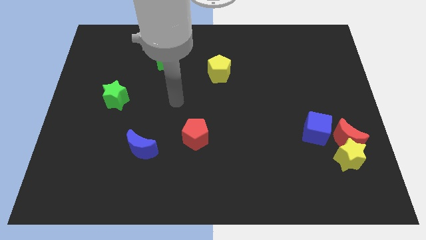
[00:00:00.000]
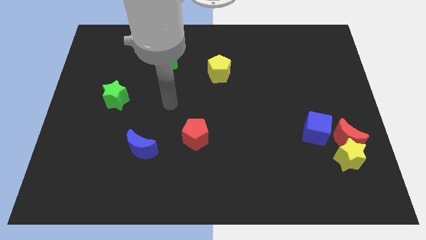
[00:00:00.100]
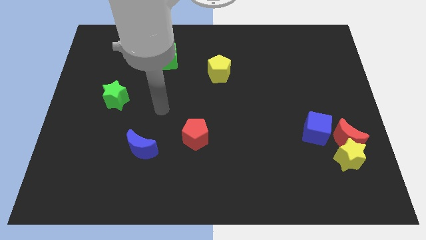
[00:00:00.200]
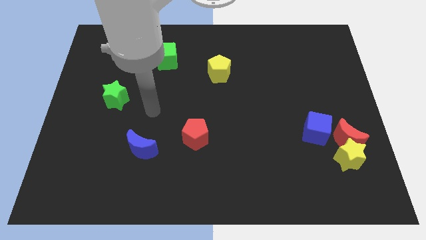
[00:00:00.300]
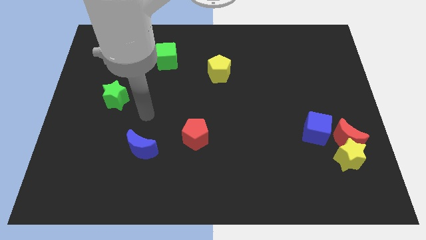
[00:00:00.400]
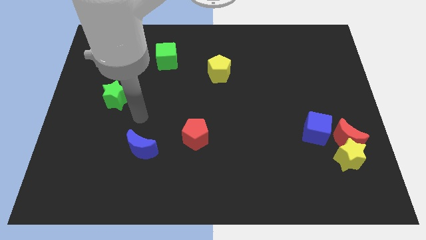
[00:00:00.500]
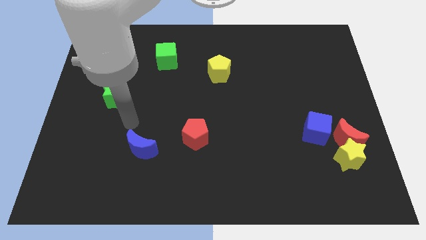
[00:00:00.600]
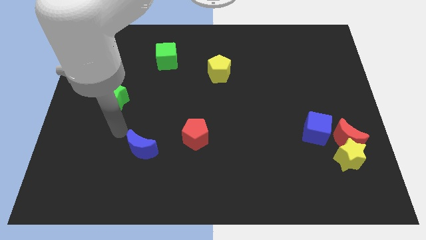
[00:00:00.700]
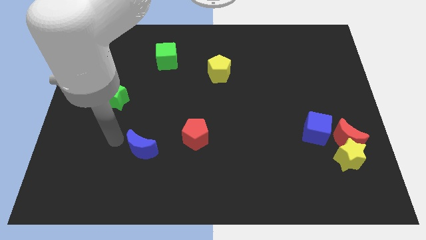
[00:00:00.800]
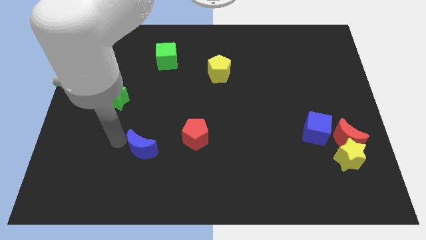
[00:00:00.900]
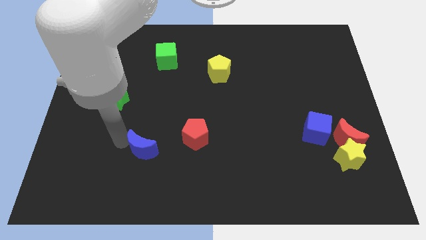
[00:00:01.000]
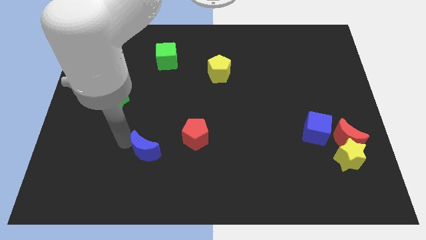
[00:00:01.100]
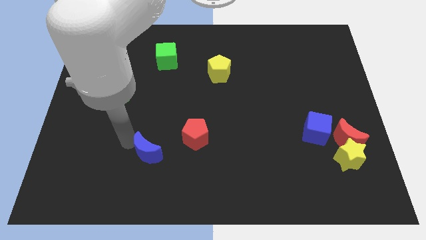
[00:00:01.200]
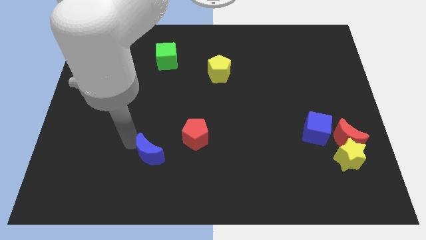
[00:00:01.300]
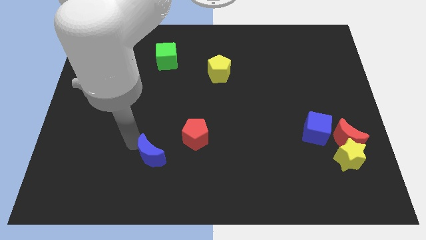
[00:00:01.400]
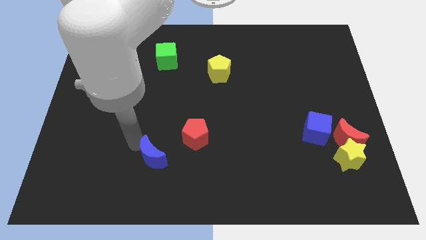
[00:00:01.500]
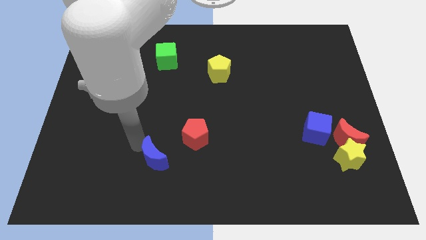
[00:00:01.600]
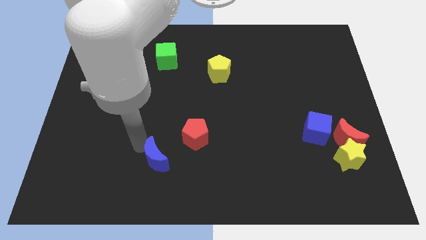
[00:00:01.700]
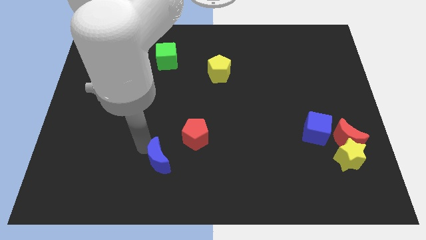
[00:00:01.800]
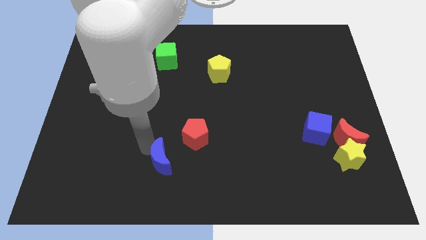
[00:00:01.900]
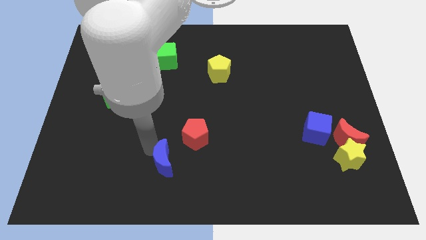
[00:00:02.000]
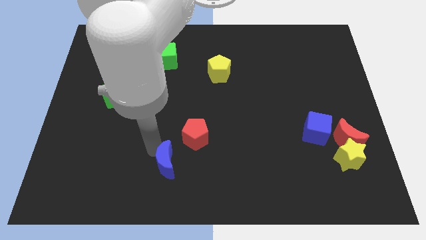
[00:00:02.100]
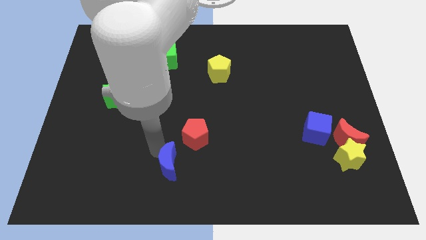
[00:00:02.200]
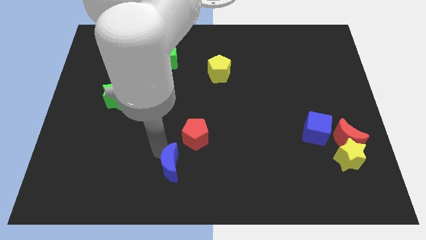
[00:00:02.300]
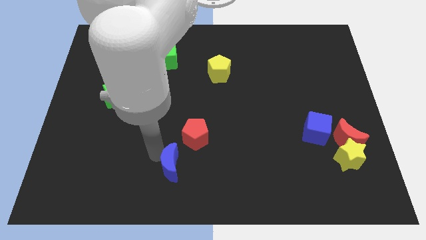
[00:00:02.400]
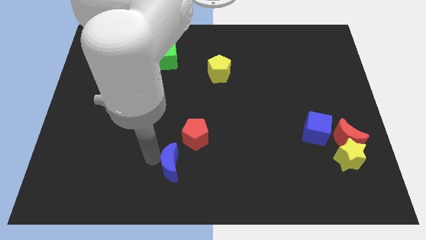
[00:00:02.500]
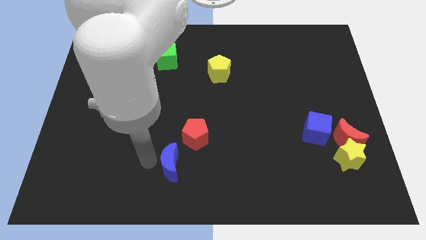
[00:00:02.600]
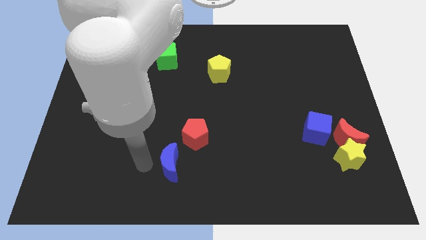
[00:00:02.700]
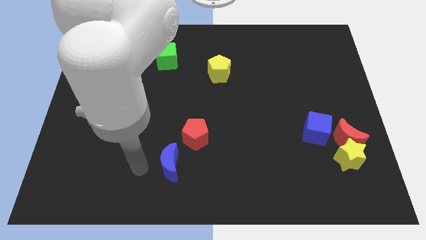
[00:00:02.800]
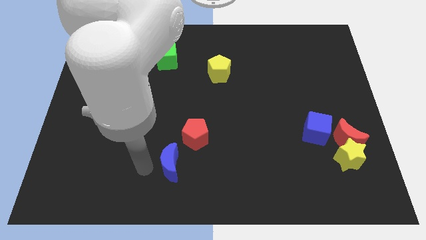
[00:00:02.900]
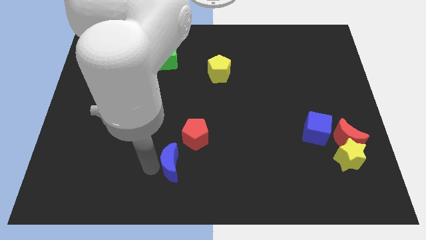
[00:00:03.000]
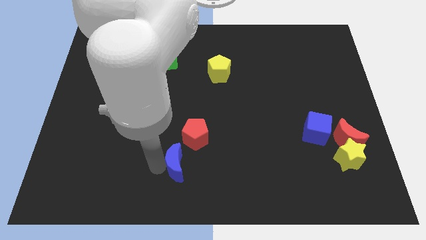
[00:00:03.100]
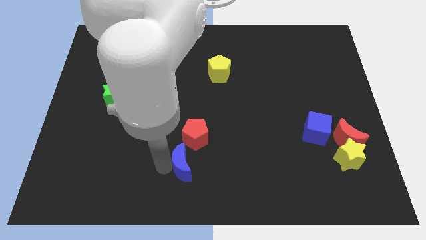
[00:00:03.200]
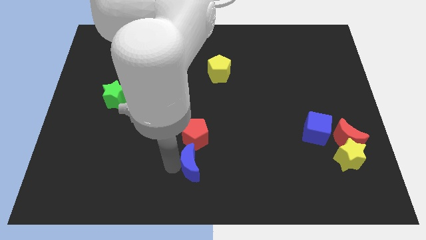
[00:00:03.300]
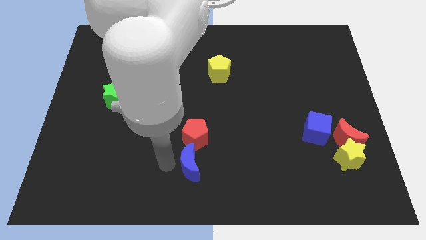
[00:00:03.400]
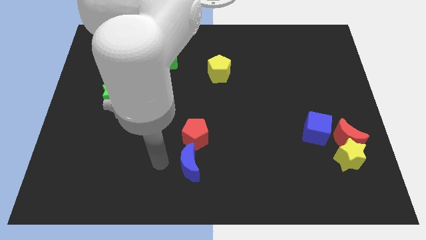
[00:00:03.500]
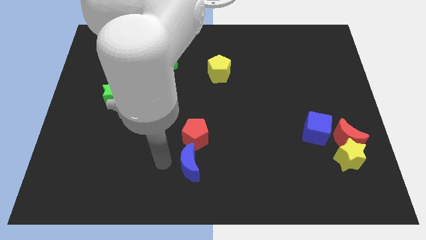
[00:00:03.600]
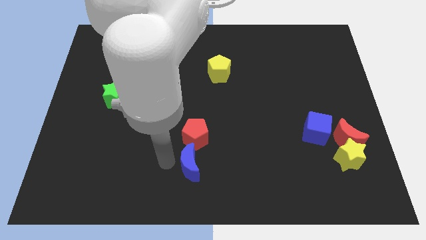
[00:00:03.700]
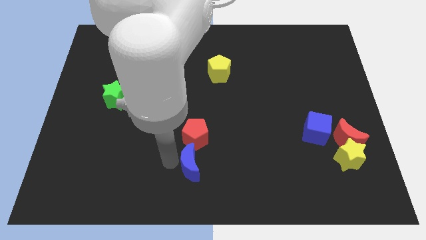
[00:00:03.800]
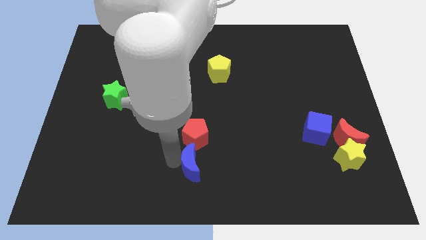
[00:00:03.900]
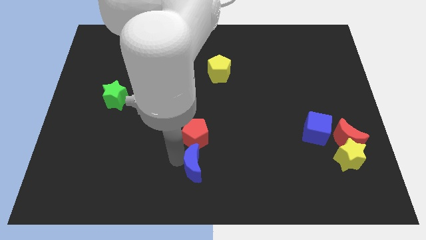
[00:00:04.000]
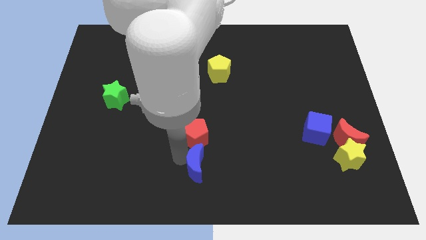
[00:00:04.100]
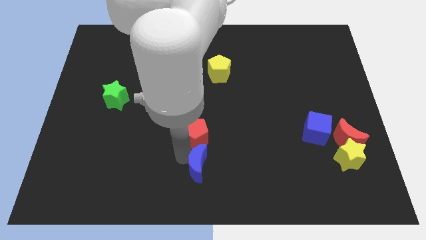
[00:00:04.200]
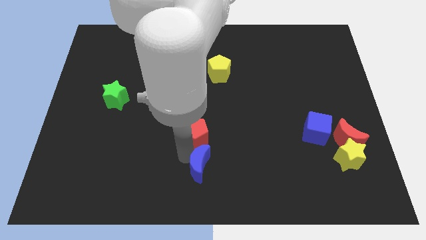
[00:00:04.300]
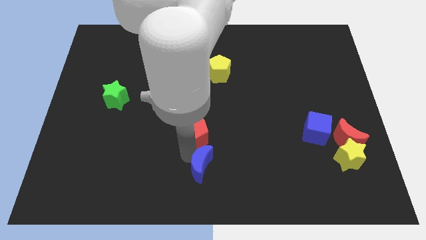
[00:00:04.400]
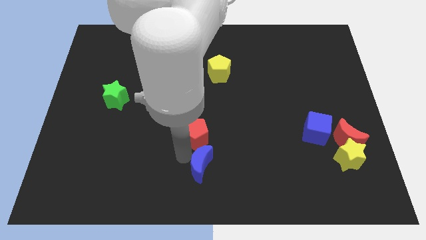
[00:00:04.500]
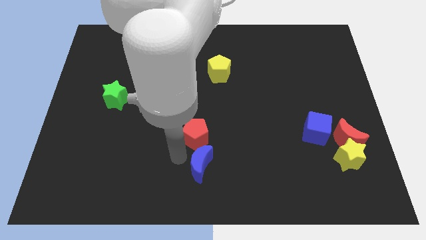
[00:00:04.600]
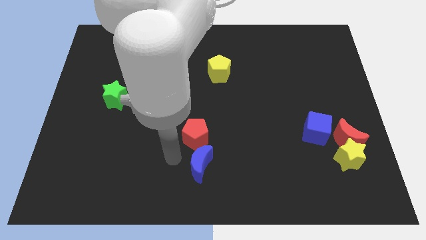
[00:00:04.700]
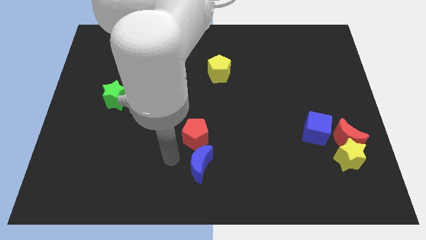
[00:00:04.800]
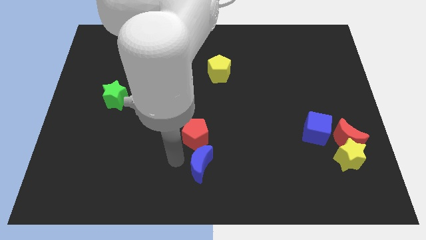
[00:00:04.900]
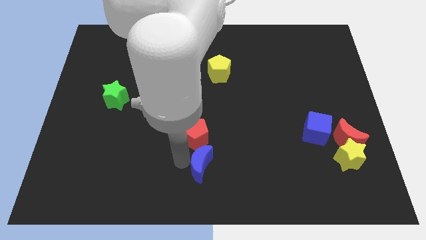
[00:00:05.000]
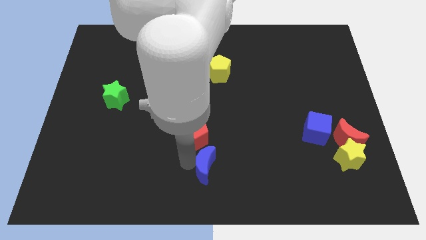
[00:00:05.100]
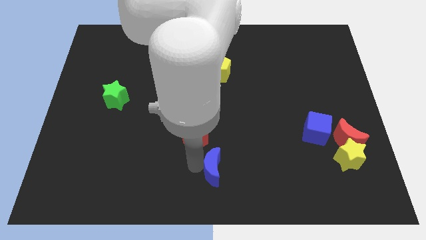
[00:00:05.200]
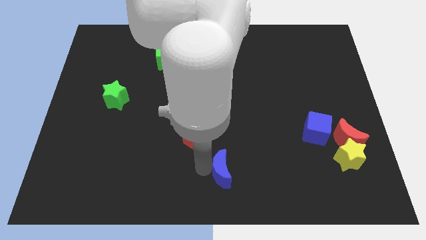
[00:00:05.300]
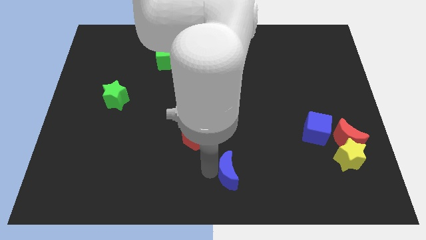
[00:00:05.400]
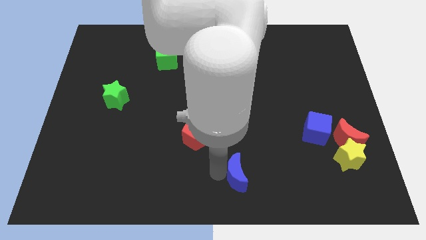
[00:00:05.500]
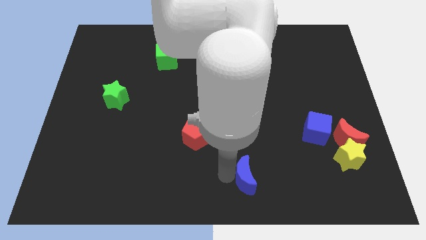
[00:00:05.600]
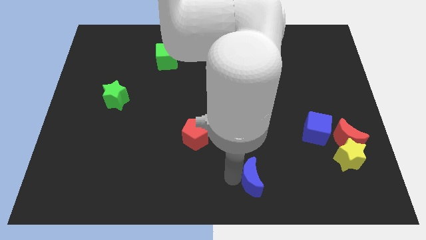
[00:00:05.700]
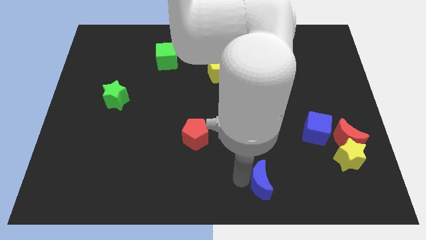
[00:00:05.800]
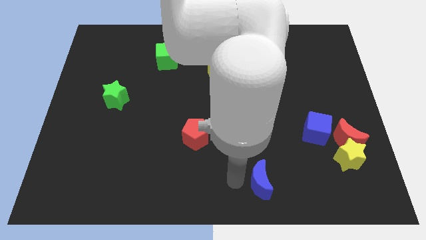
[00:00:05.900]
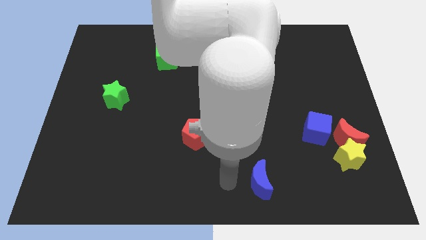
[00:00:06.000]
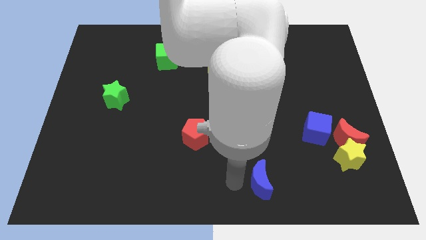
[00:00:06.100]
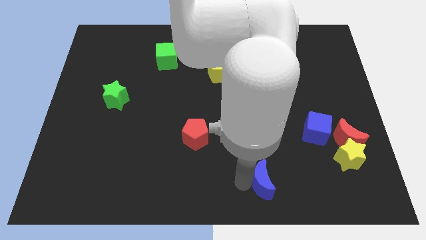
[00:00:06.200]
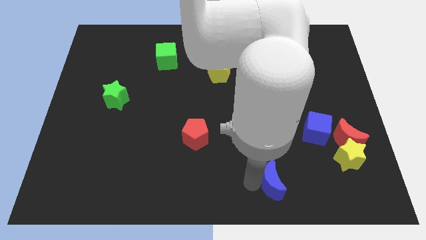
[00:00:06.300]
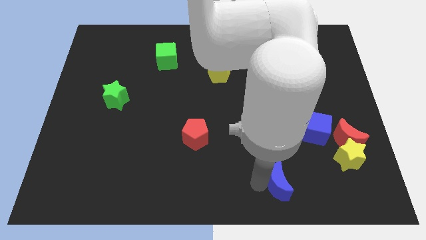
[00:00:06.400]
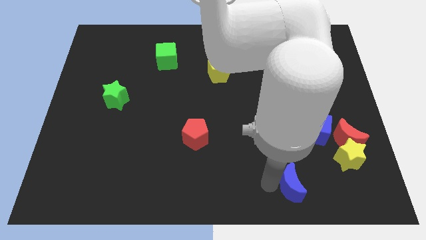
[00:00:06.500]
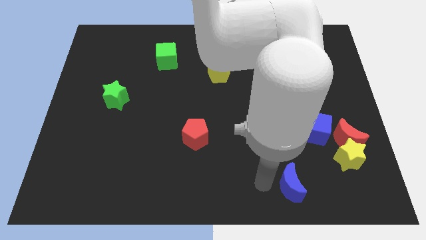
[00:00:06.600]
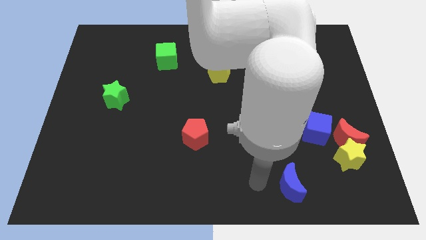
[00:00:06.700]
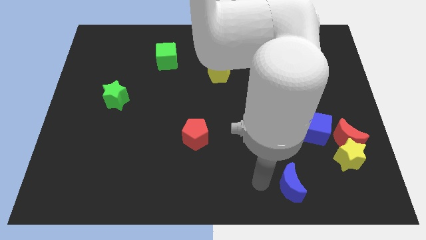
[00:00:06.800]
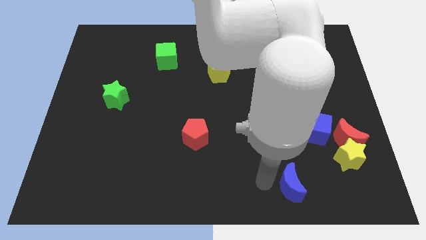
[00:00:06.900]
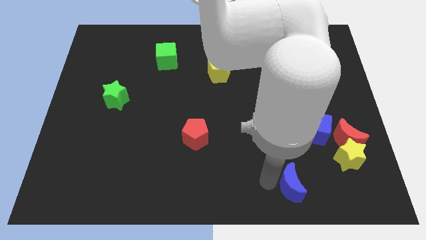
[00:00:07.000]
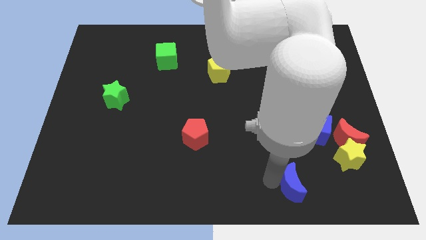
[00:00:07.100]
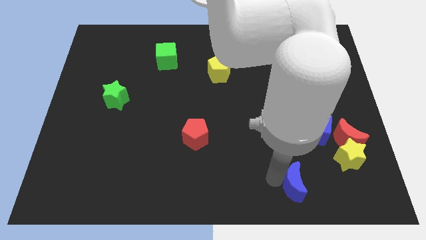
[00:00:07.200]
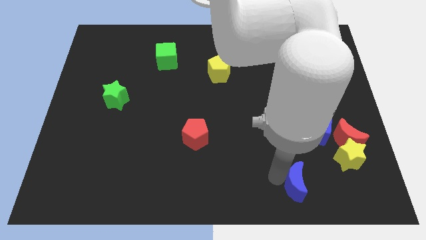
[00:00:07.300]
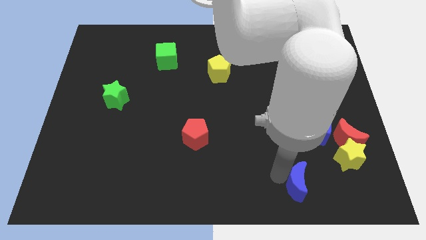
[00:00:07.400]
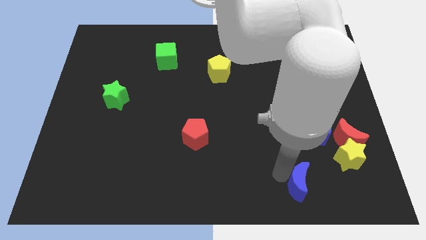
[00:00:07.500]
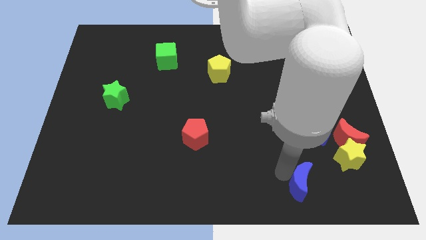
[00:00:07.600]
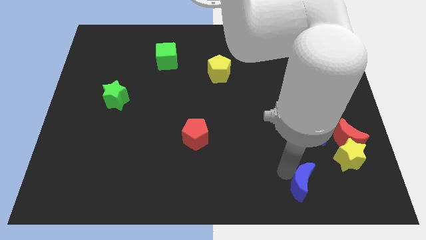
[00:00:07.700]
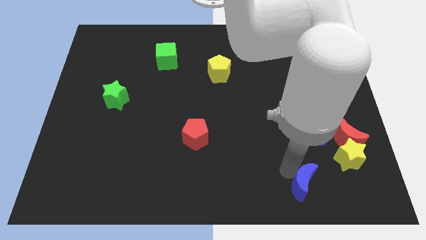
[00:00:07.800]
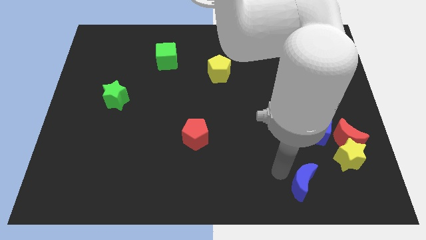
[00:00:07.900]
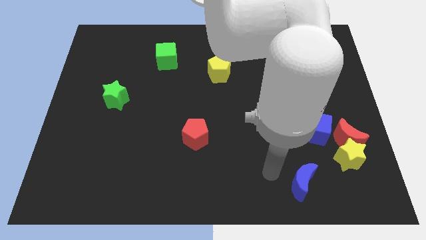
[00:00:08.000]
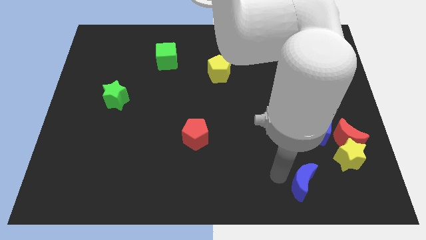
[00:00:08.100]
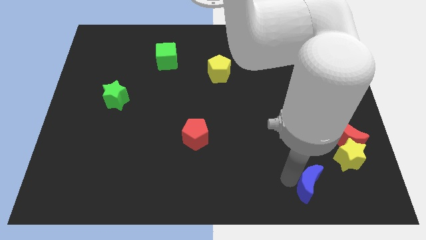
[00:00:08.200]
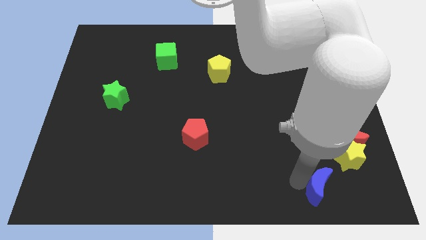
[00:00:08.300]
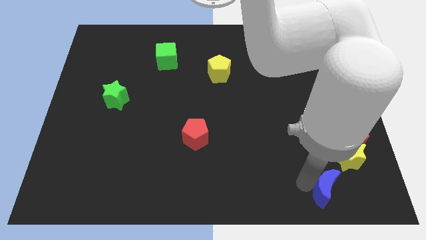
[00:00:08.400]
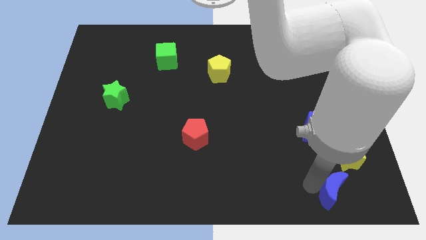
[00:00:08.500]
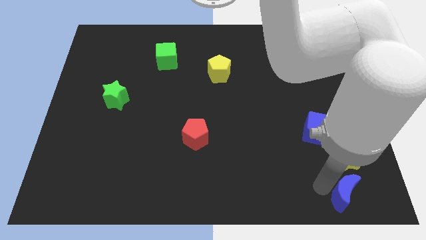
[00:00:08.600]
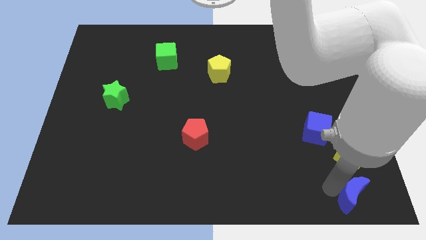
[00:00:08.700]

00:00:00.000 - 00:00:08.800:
put the blue moon to the bottom right
